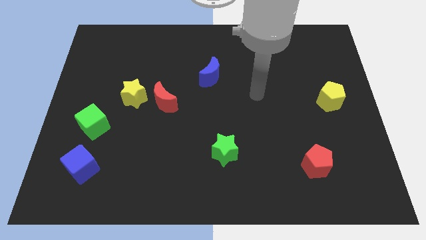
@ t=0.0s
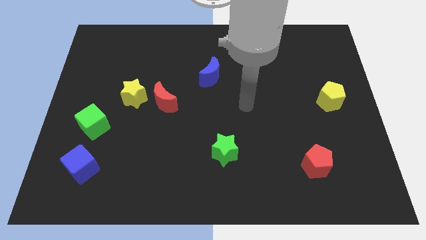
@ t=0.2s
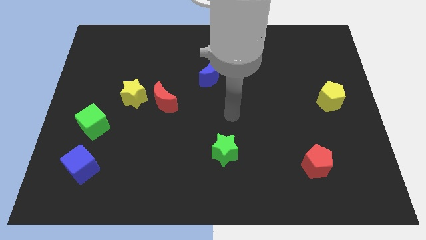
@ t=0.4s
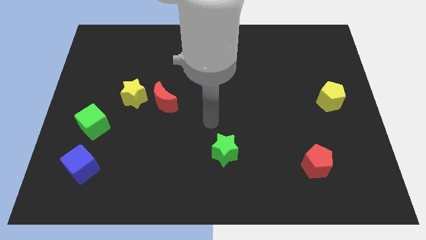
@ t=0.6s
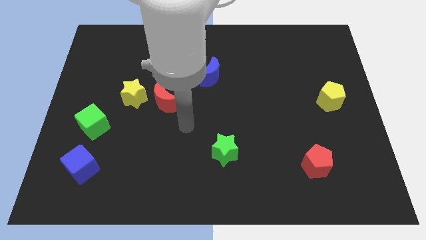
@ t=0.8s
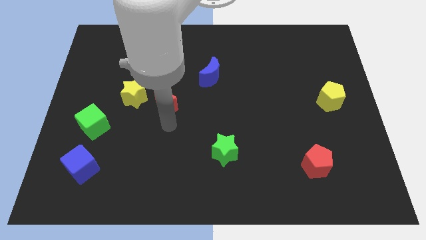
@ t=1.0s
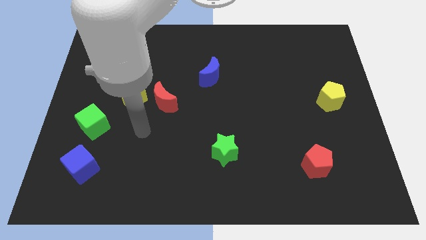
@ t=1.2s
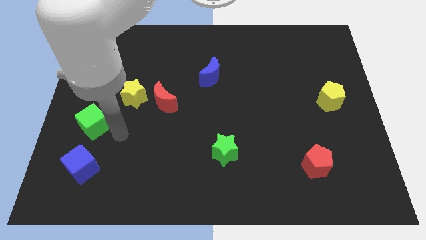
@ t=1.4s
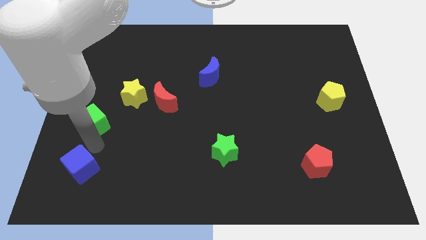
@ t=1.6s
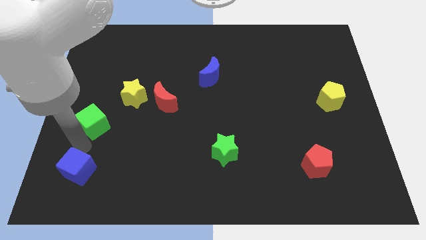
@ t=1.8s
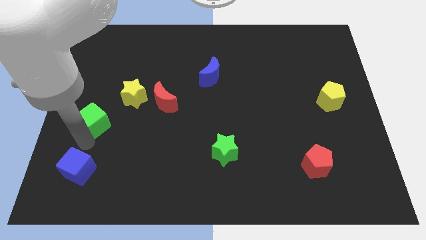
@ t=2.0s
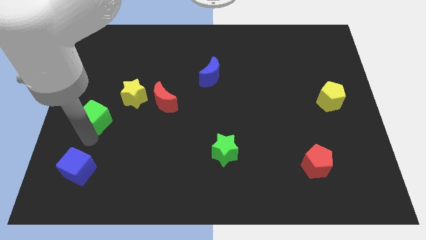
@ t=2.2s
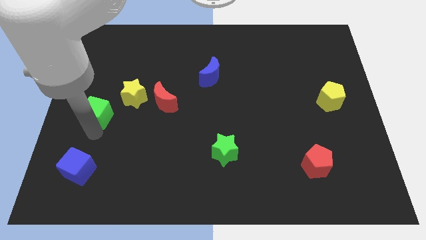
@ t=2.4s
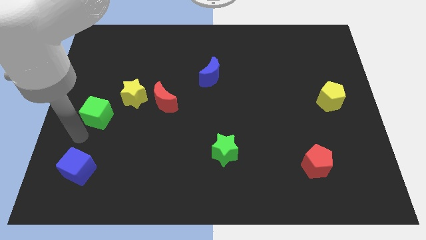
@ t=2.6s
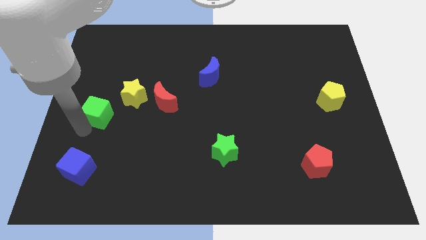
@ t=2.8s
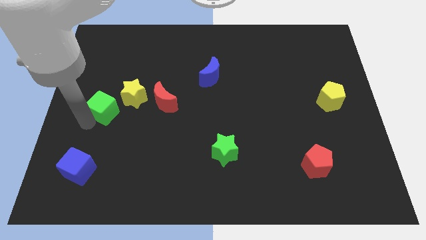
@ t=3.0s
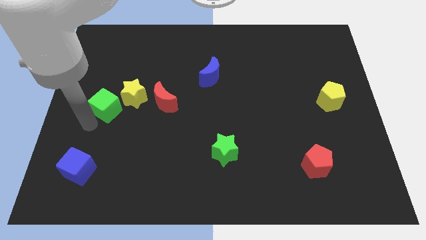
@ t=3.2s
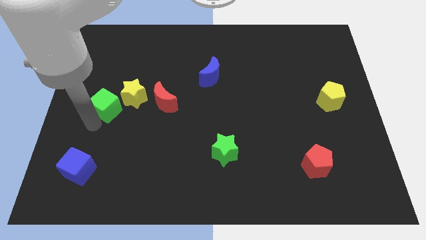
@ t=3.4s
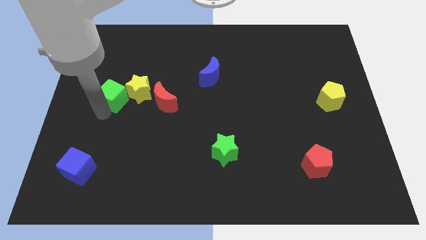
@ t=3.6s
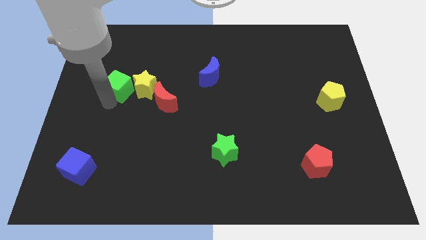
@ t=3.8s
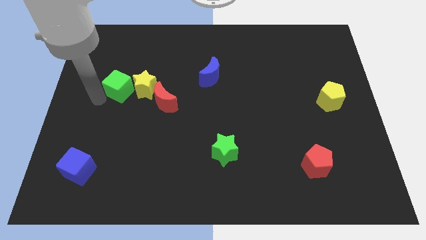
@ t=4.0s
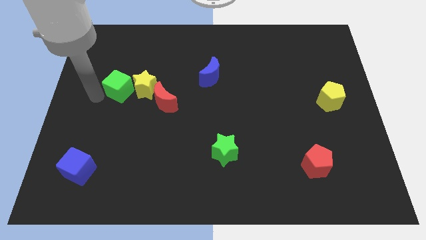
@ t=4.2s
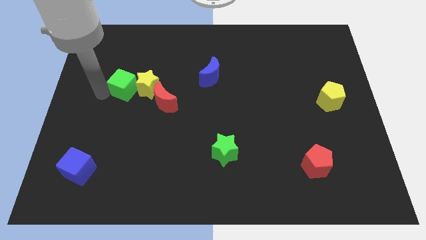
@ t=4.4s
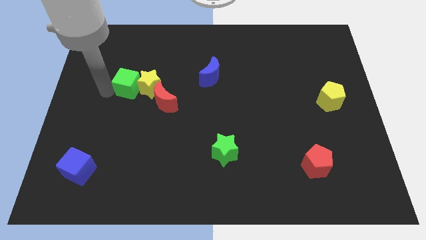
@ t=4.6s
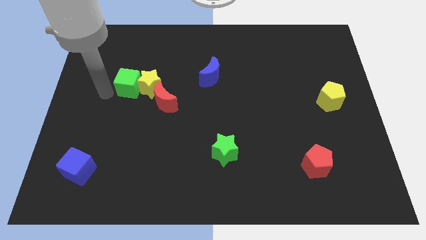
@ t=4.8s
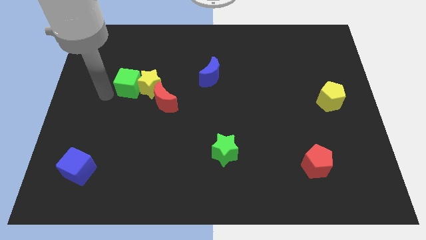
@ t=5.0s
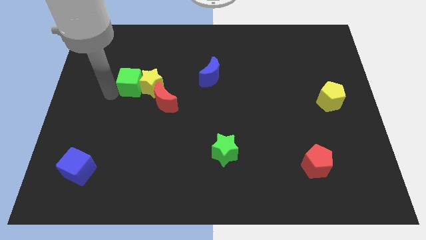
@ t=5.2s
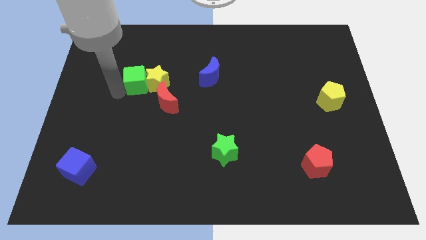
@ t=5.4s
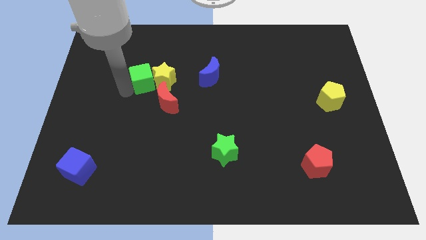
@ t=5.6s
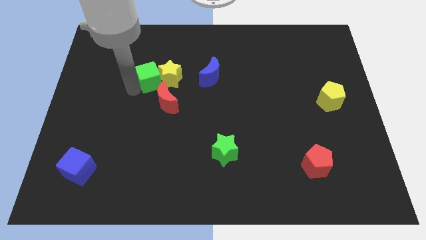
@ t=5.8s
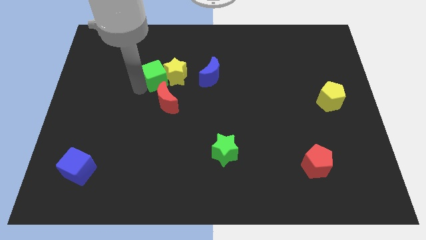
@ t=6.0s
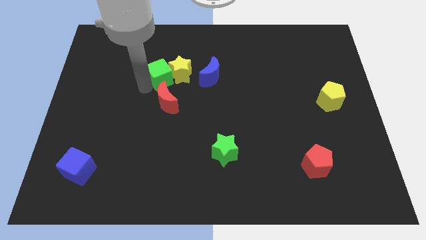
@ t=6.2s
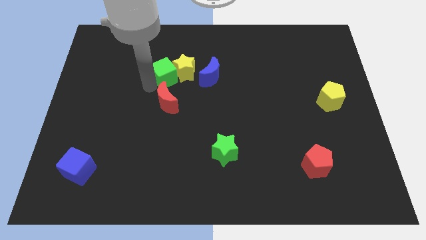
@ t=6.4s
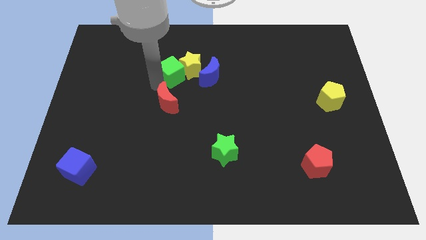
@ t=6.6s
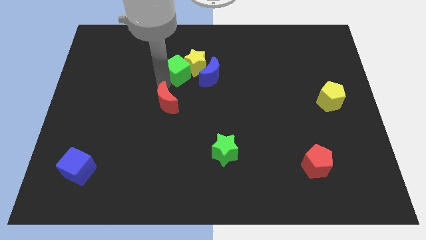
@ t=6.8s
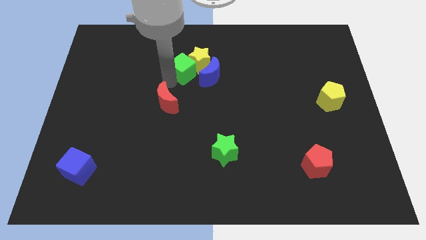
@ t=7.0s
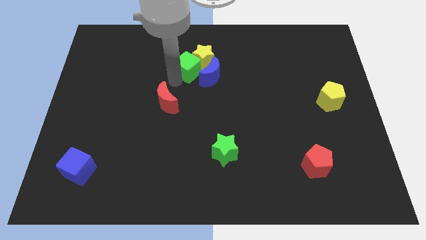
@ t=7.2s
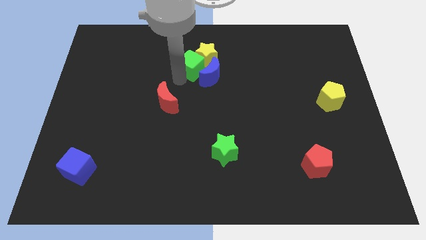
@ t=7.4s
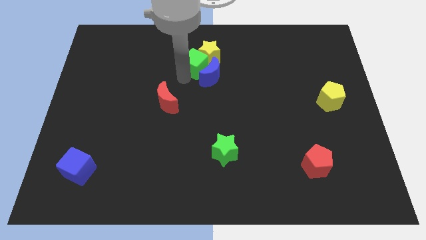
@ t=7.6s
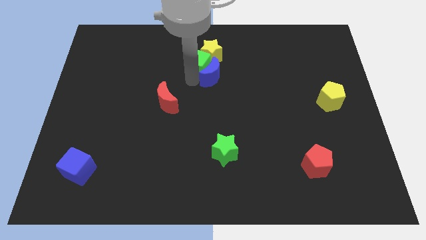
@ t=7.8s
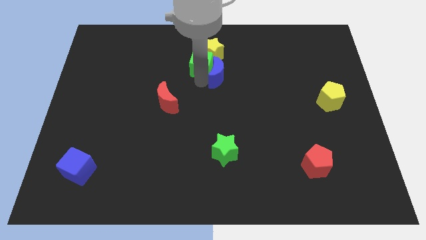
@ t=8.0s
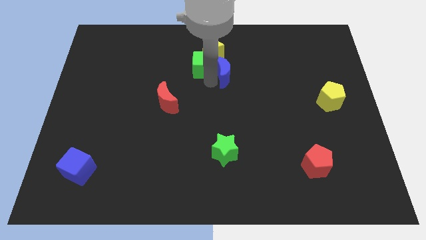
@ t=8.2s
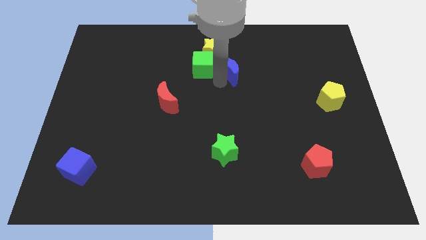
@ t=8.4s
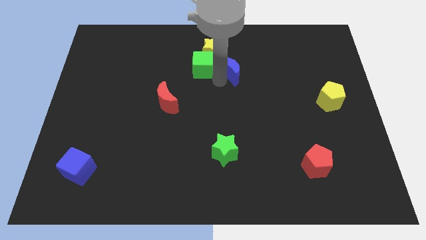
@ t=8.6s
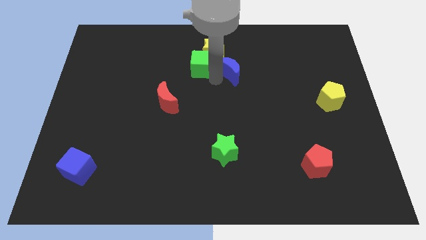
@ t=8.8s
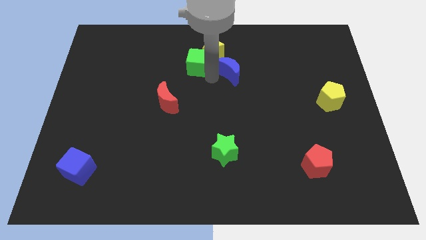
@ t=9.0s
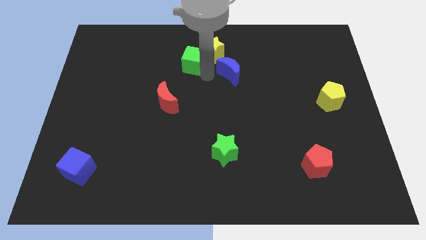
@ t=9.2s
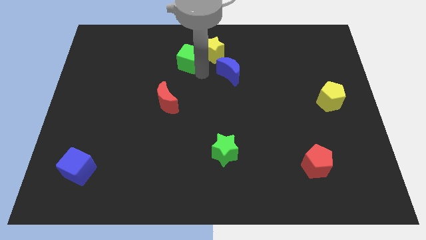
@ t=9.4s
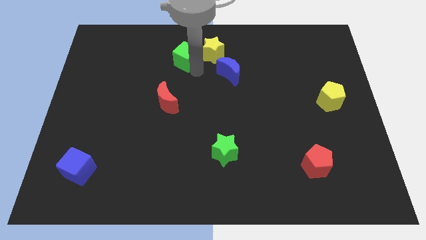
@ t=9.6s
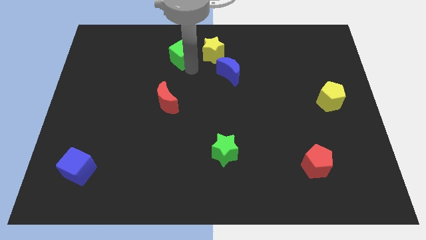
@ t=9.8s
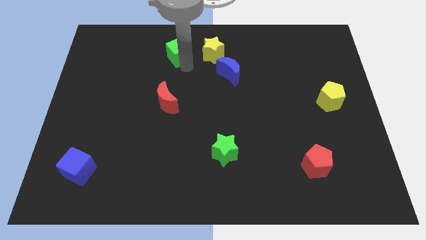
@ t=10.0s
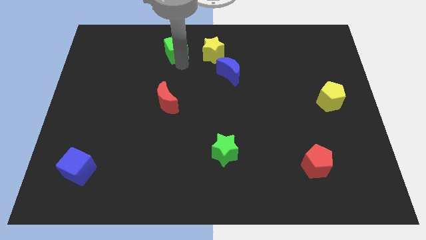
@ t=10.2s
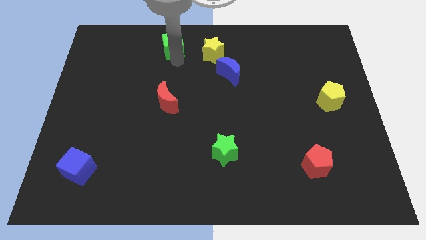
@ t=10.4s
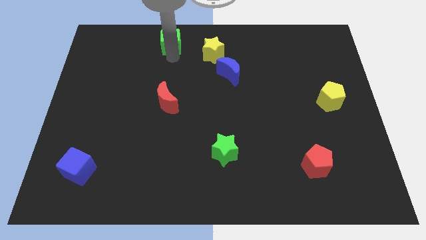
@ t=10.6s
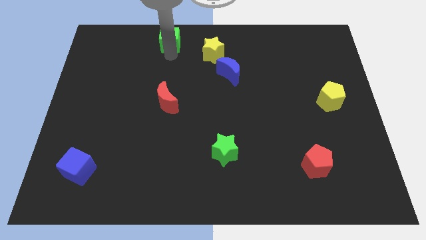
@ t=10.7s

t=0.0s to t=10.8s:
slide the green cube to the top side
